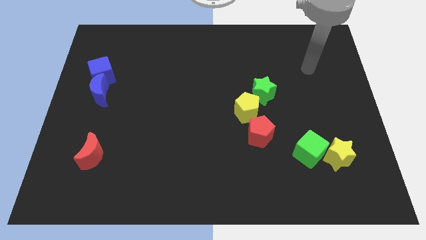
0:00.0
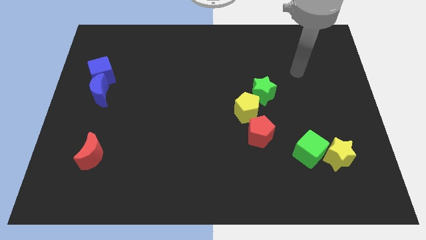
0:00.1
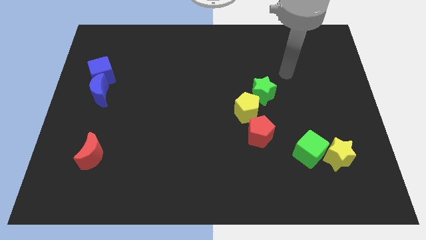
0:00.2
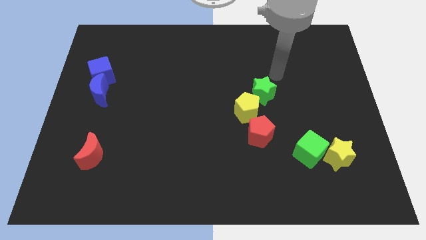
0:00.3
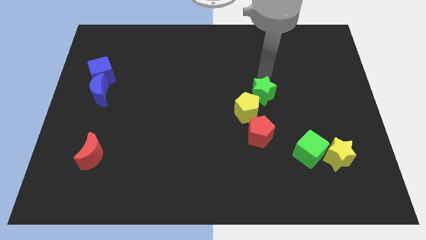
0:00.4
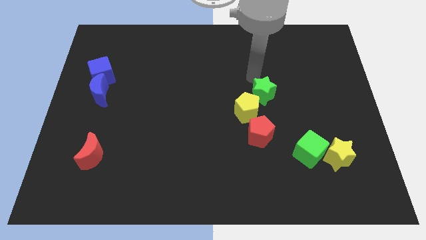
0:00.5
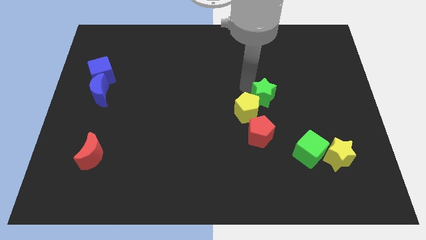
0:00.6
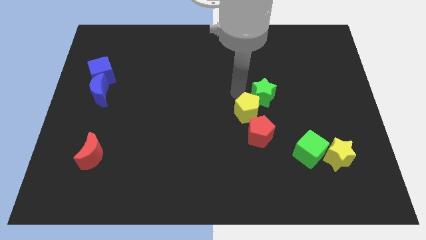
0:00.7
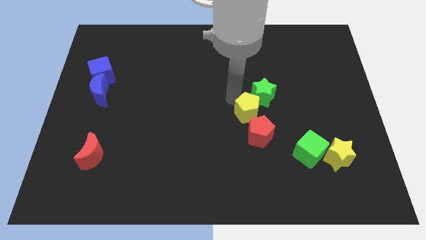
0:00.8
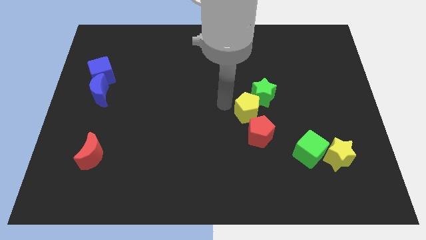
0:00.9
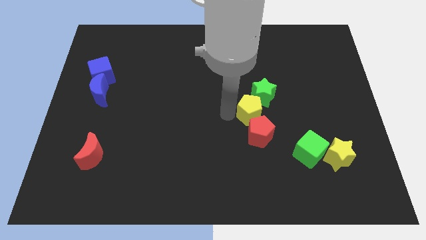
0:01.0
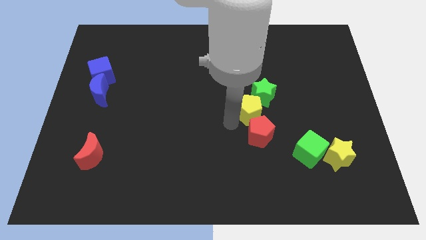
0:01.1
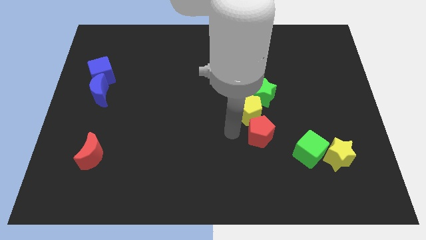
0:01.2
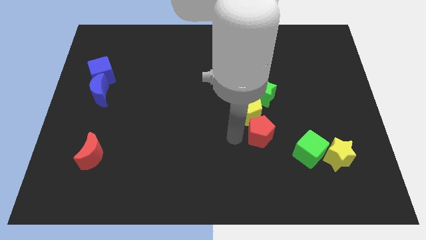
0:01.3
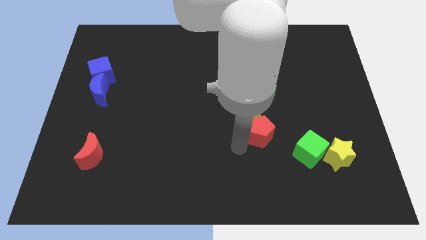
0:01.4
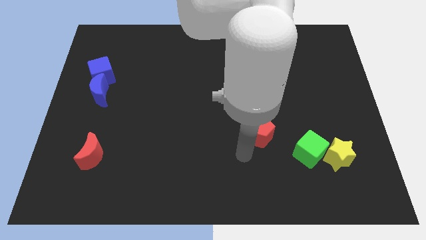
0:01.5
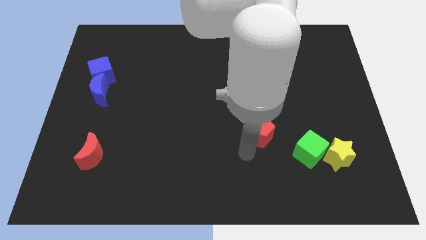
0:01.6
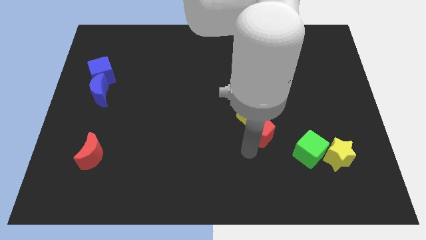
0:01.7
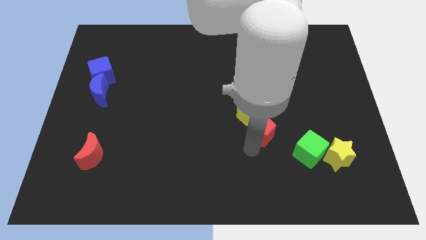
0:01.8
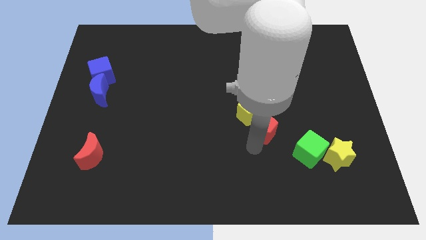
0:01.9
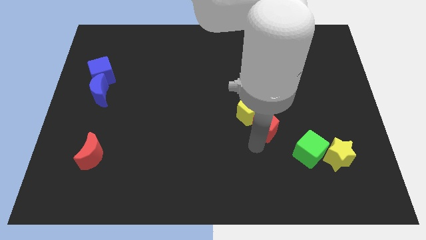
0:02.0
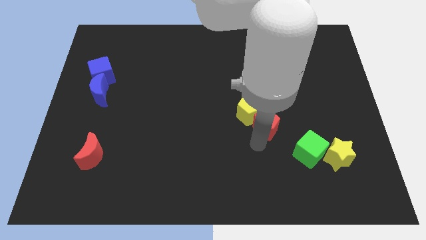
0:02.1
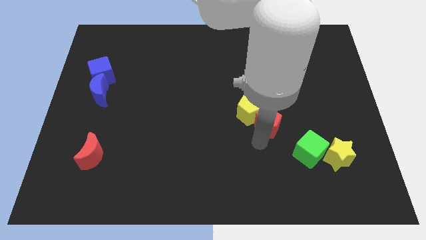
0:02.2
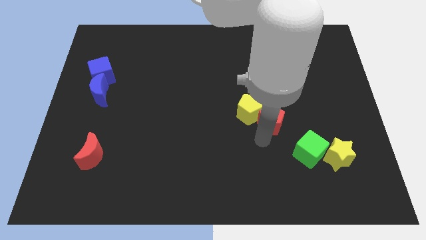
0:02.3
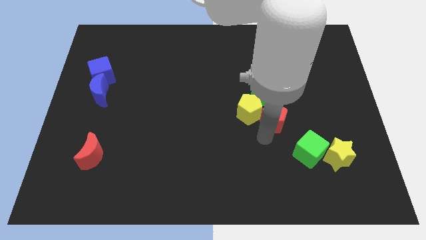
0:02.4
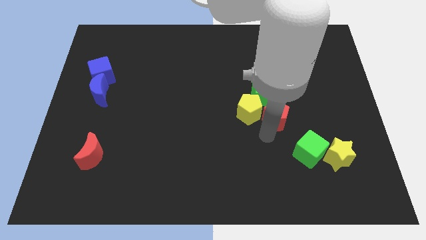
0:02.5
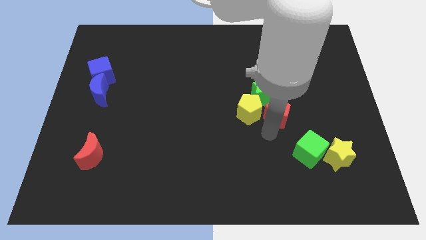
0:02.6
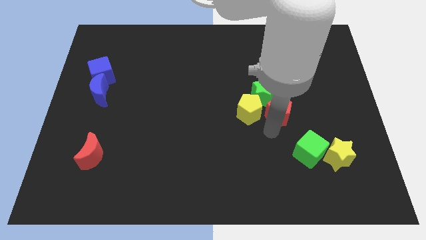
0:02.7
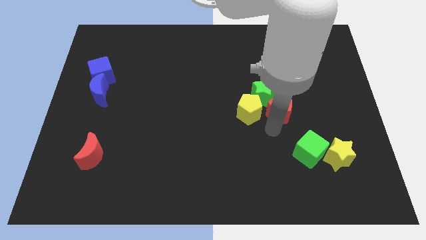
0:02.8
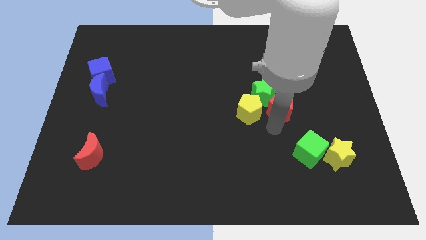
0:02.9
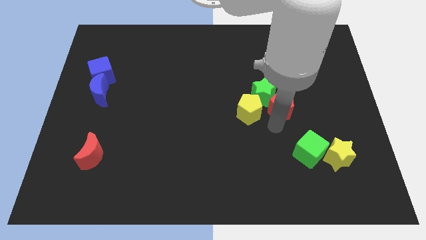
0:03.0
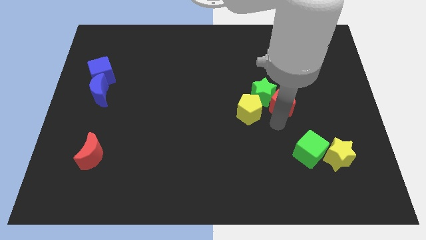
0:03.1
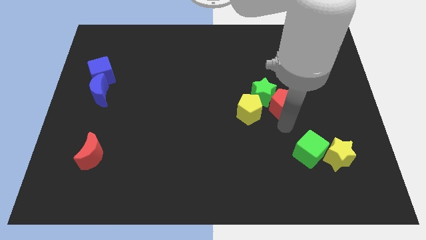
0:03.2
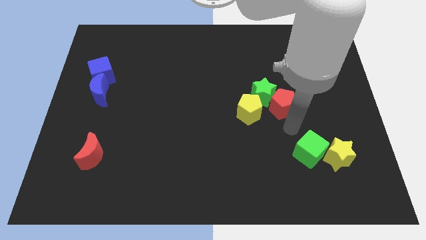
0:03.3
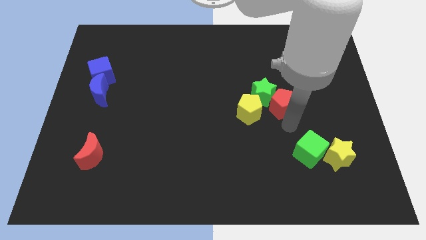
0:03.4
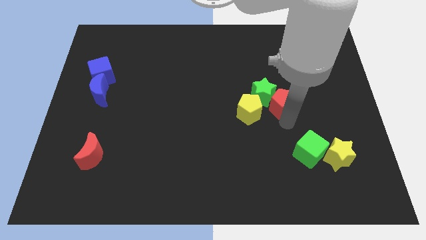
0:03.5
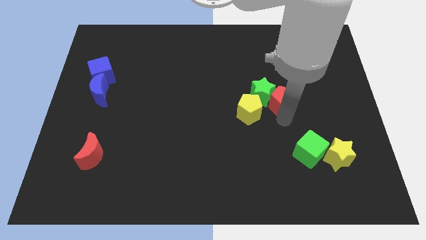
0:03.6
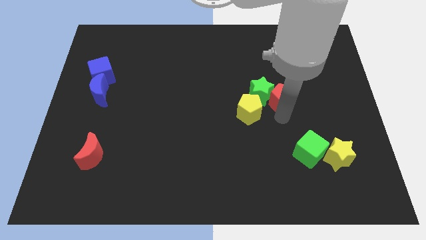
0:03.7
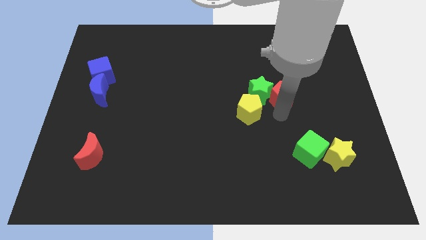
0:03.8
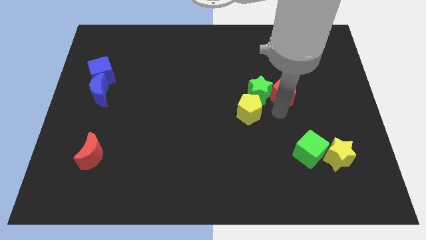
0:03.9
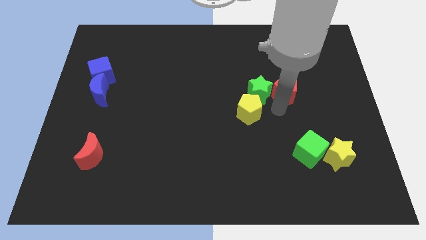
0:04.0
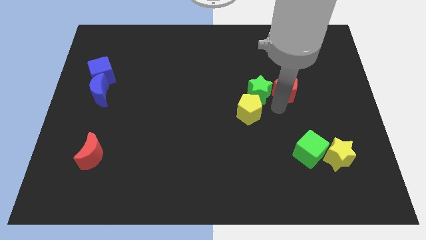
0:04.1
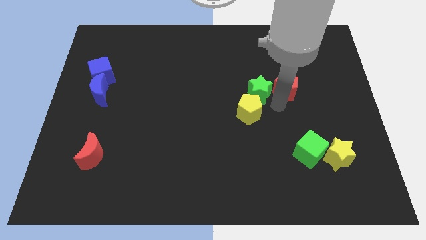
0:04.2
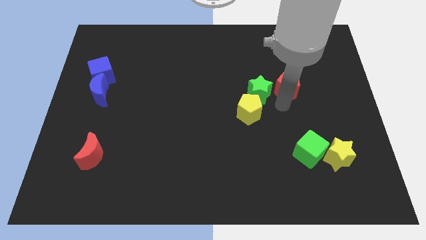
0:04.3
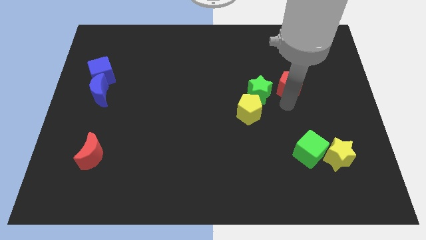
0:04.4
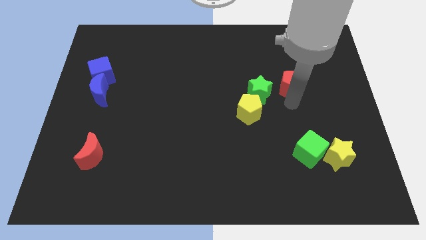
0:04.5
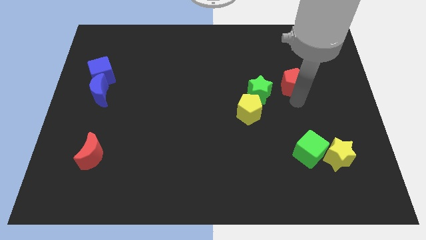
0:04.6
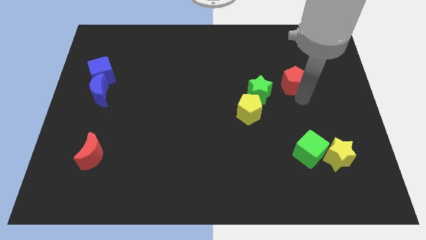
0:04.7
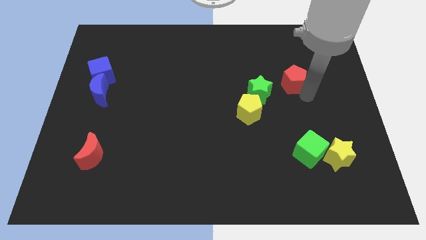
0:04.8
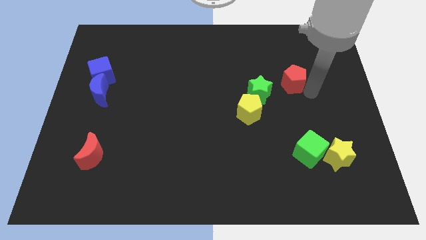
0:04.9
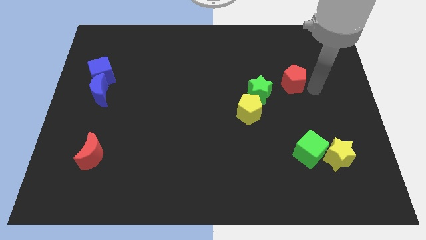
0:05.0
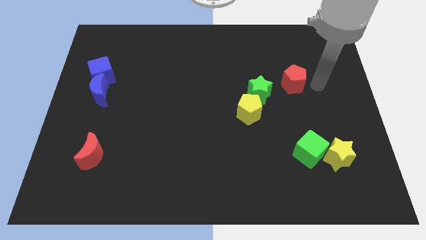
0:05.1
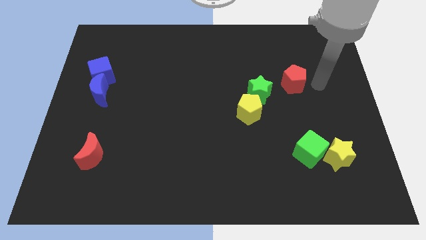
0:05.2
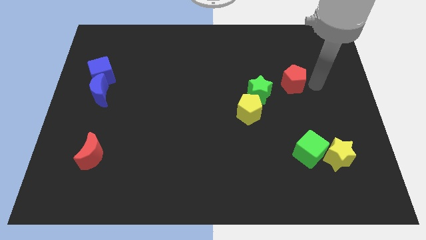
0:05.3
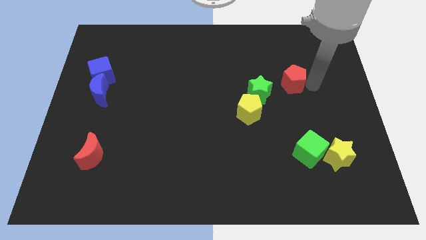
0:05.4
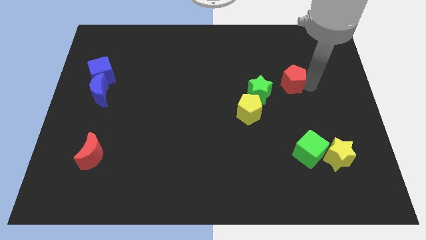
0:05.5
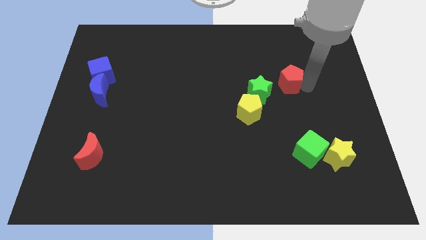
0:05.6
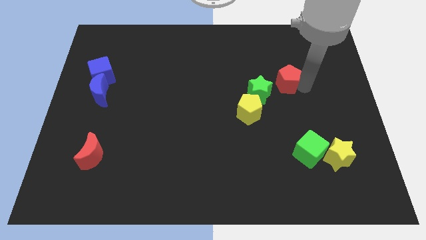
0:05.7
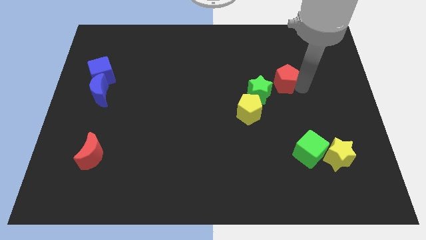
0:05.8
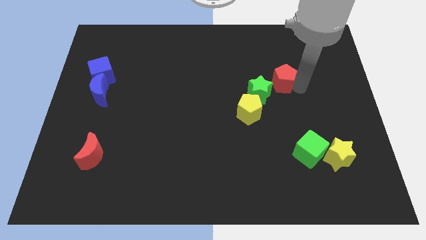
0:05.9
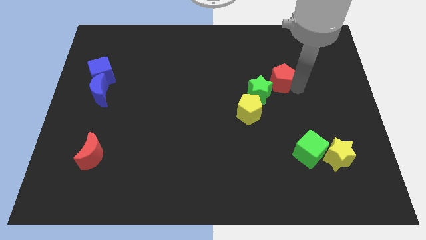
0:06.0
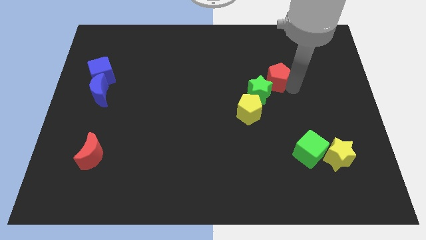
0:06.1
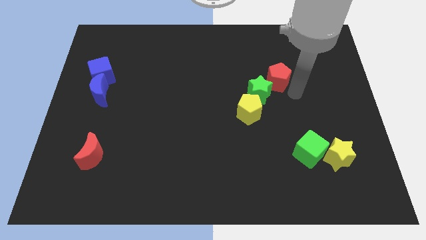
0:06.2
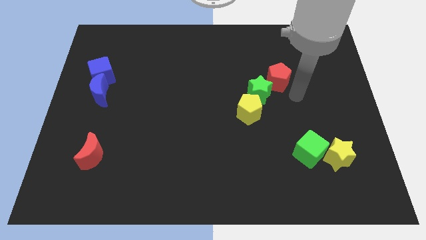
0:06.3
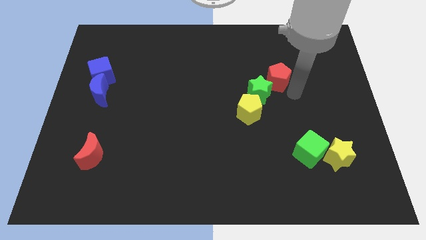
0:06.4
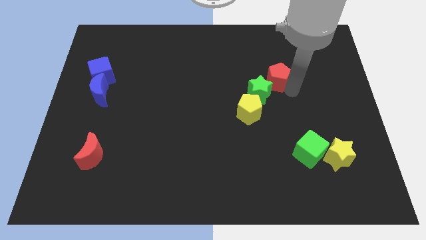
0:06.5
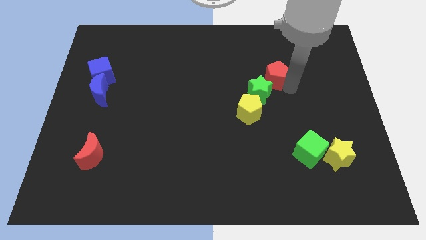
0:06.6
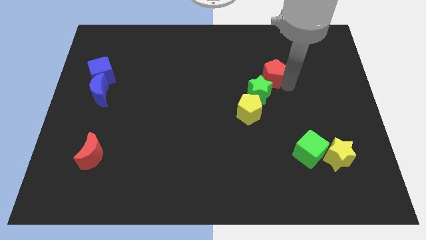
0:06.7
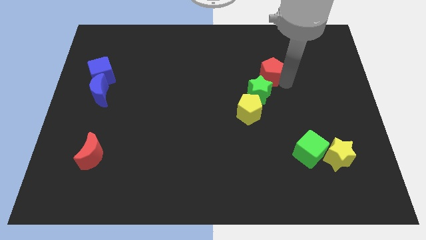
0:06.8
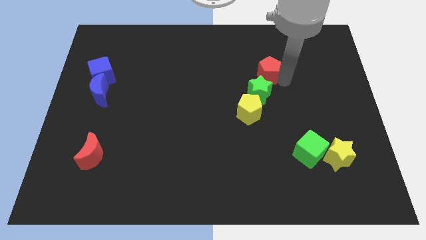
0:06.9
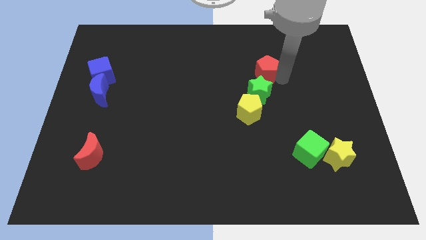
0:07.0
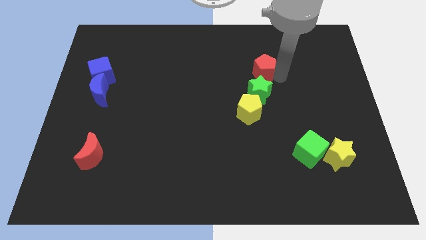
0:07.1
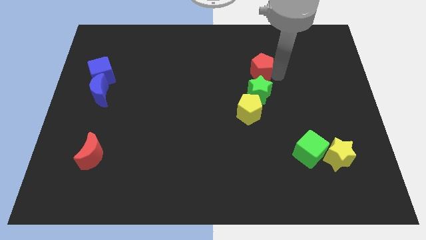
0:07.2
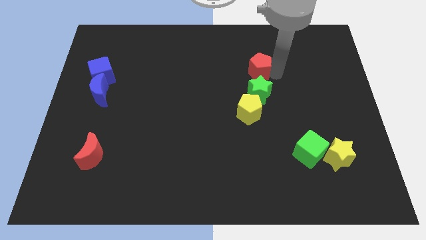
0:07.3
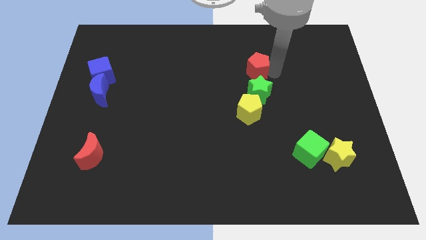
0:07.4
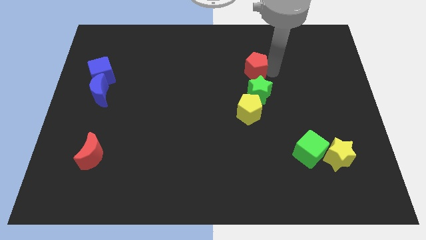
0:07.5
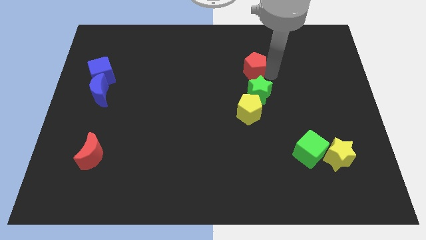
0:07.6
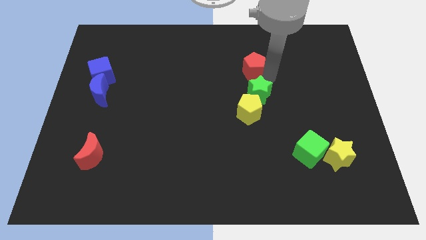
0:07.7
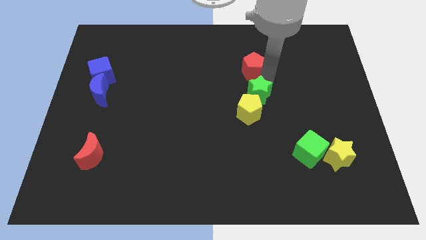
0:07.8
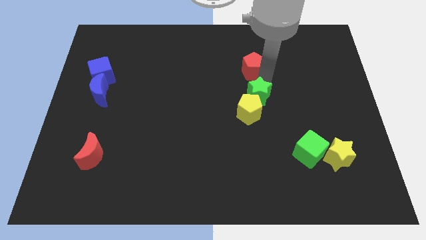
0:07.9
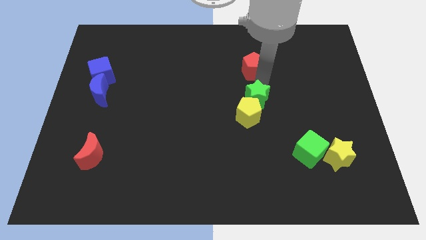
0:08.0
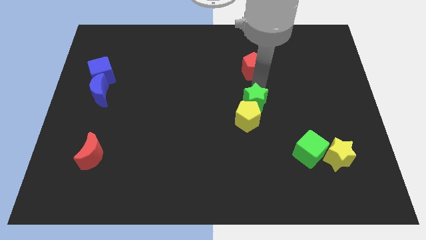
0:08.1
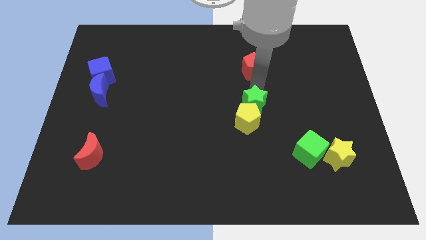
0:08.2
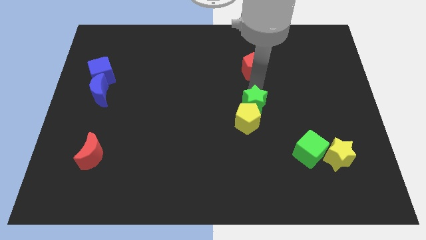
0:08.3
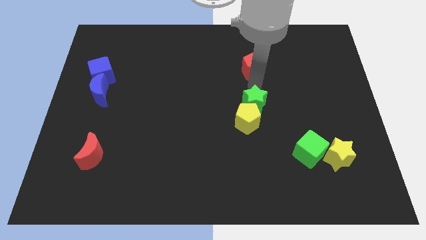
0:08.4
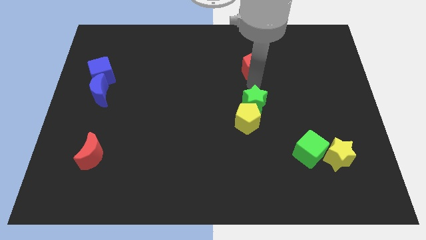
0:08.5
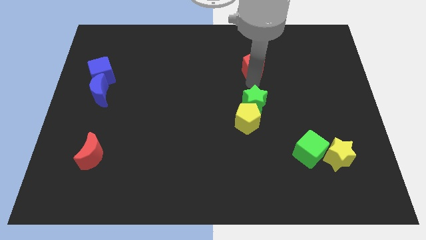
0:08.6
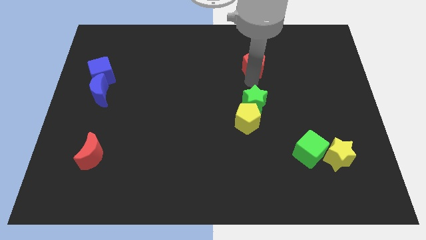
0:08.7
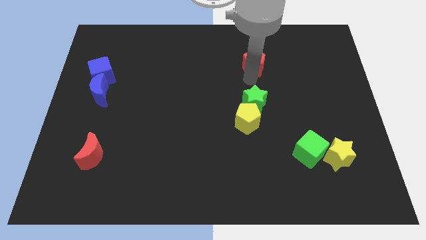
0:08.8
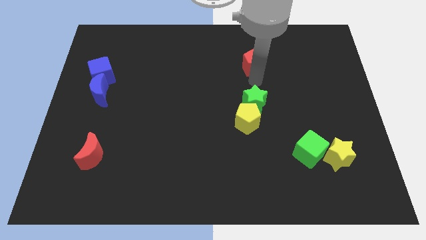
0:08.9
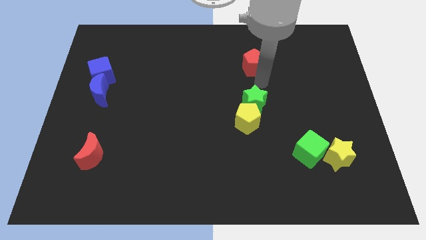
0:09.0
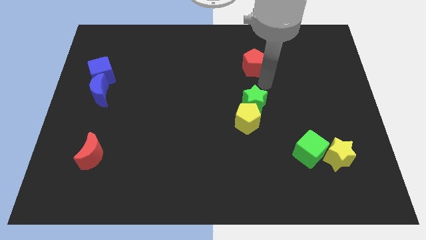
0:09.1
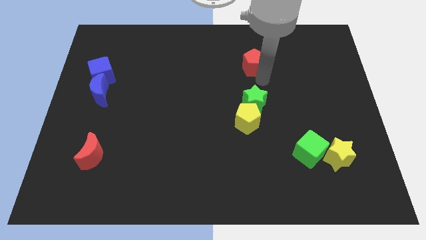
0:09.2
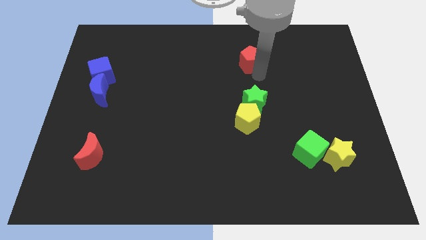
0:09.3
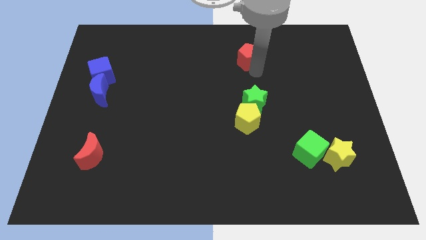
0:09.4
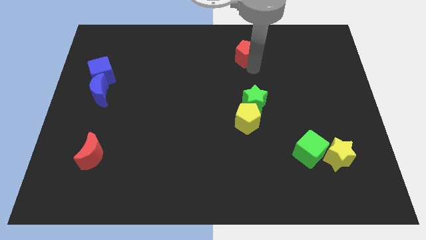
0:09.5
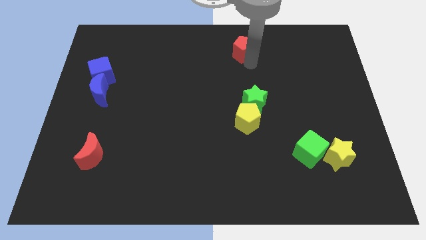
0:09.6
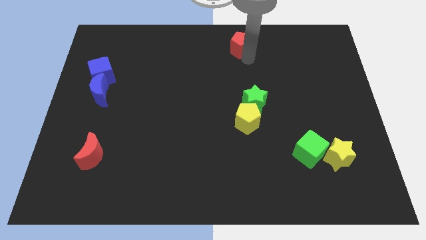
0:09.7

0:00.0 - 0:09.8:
slide the red pentagon to the top side
